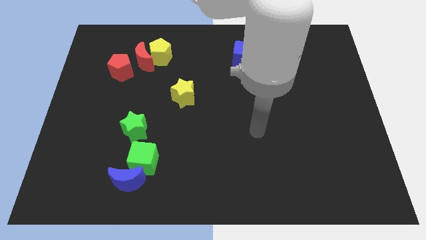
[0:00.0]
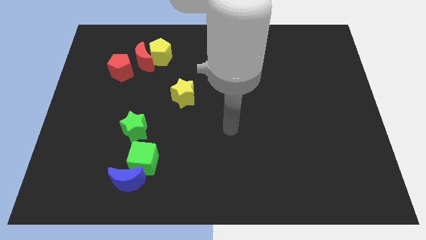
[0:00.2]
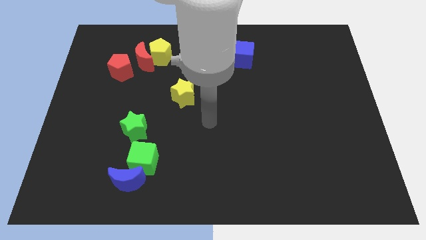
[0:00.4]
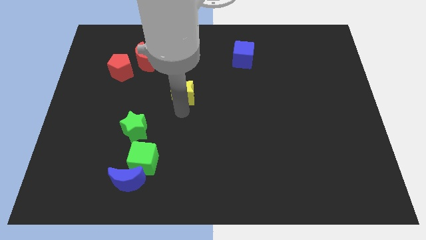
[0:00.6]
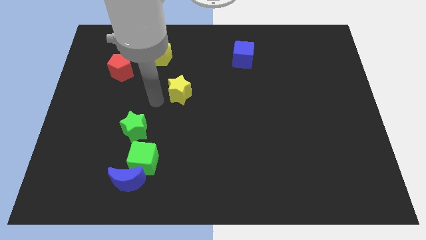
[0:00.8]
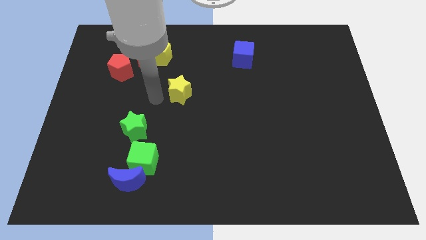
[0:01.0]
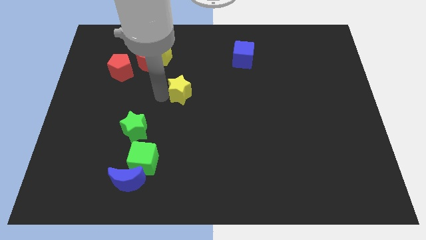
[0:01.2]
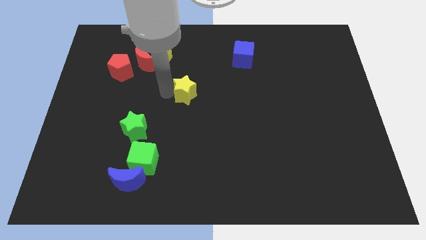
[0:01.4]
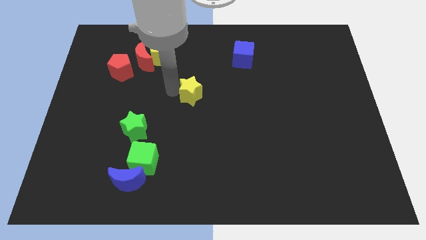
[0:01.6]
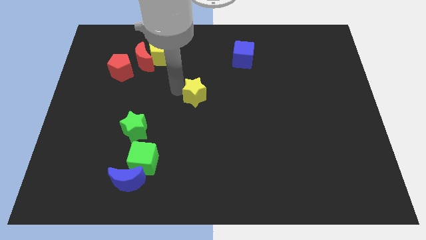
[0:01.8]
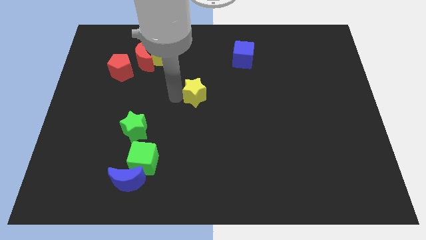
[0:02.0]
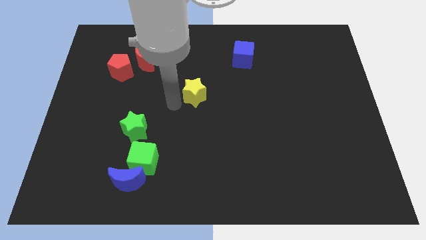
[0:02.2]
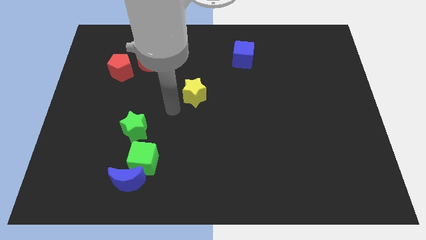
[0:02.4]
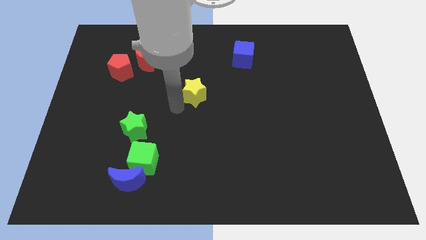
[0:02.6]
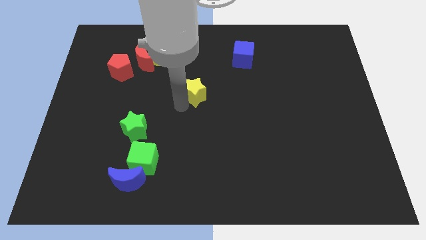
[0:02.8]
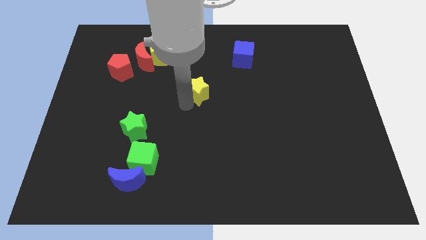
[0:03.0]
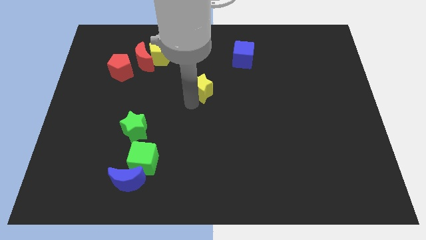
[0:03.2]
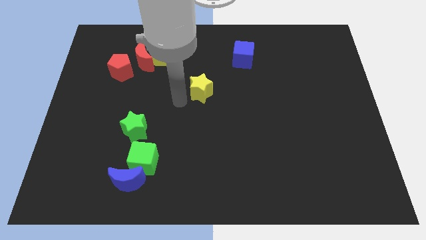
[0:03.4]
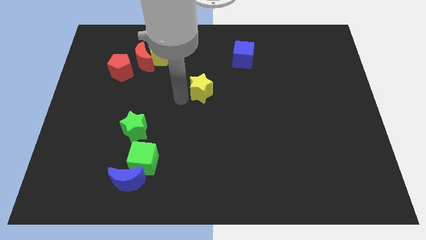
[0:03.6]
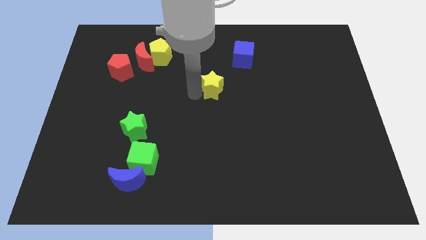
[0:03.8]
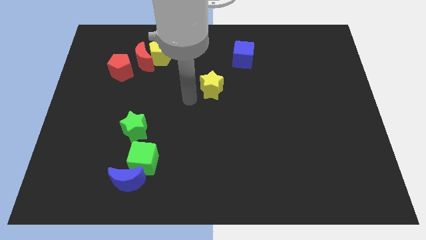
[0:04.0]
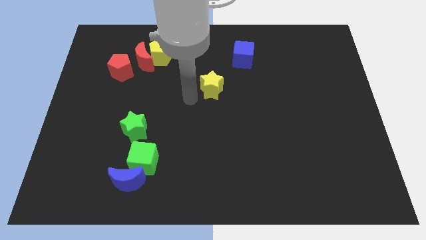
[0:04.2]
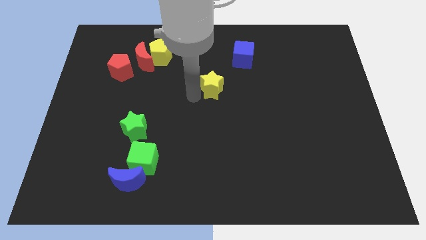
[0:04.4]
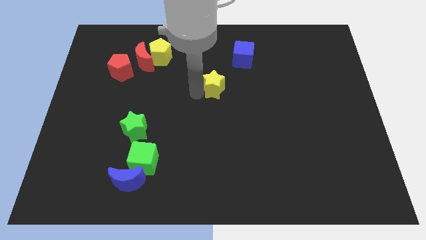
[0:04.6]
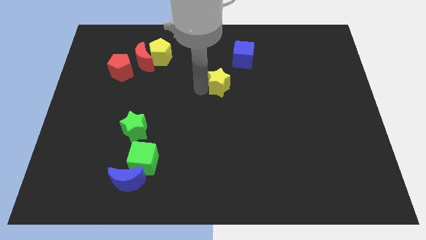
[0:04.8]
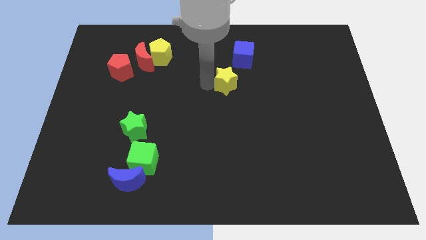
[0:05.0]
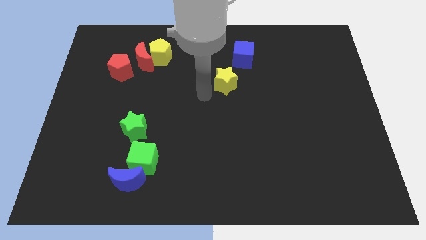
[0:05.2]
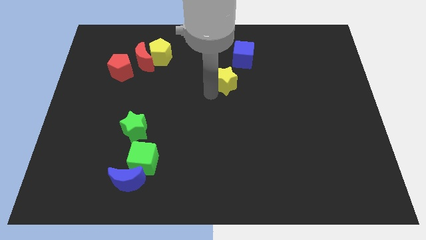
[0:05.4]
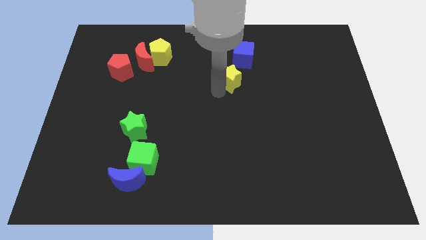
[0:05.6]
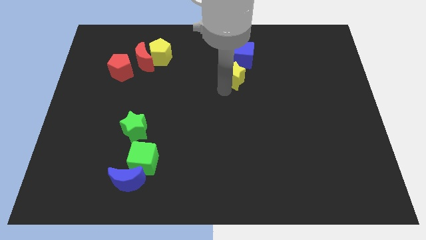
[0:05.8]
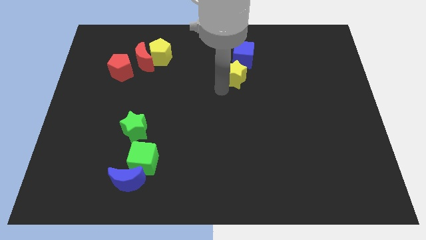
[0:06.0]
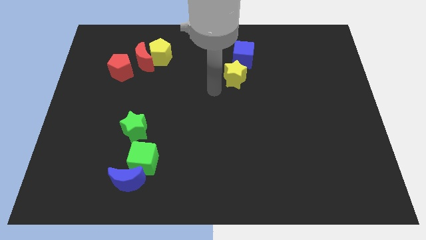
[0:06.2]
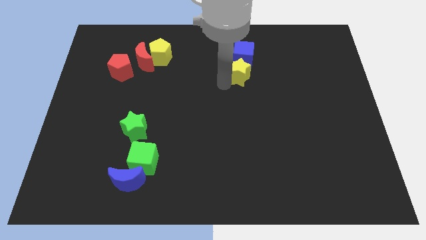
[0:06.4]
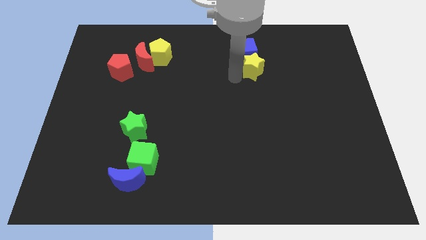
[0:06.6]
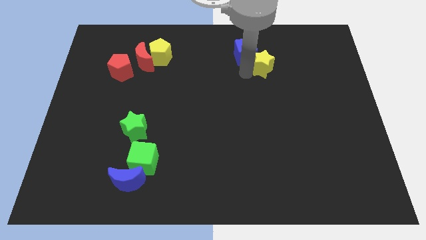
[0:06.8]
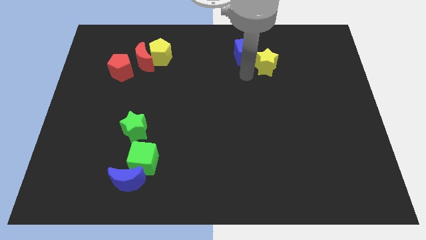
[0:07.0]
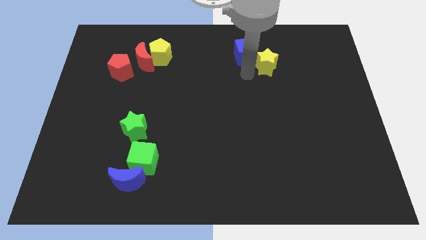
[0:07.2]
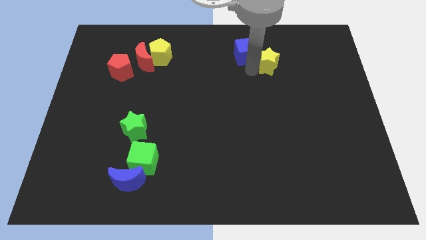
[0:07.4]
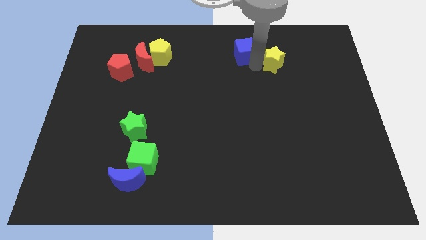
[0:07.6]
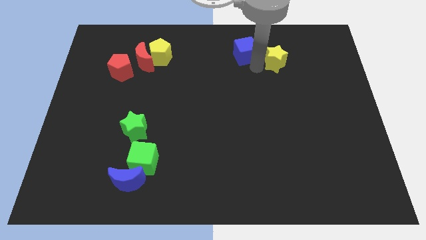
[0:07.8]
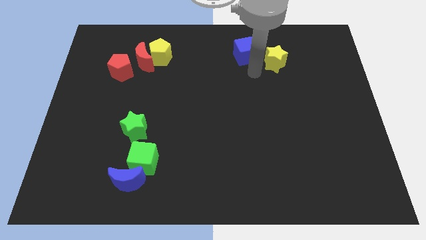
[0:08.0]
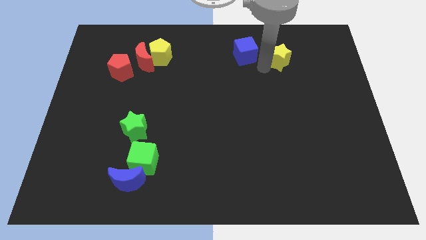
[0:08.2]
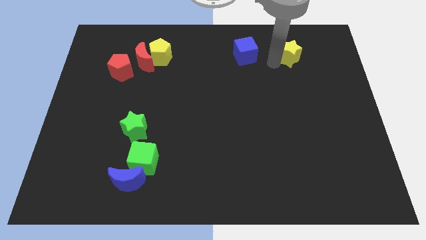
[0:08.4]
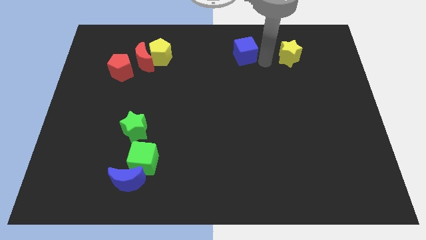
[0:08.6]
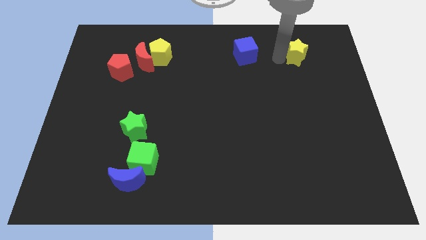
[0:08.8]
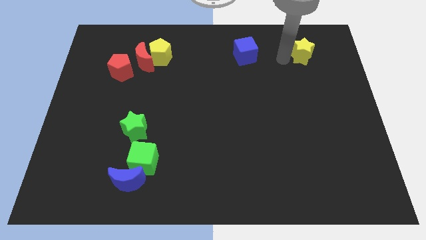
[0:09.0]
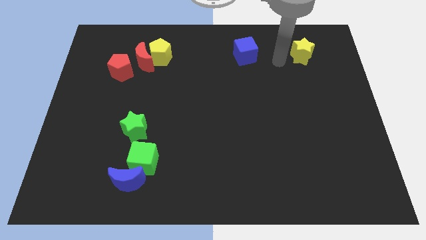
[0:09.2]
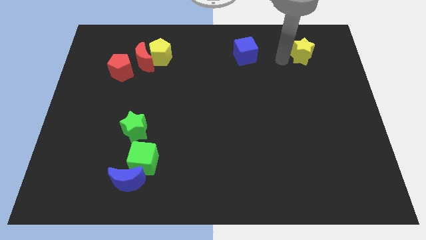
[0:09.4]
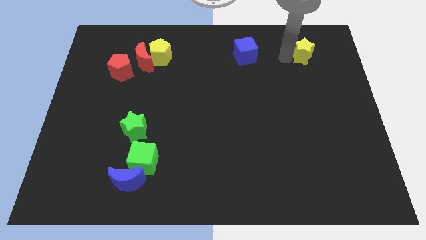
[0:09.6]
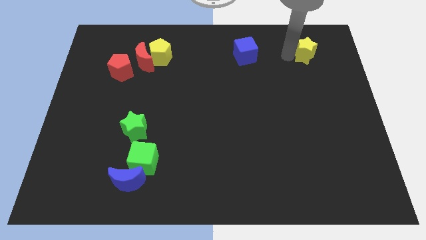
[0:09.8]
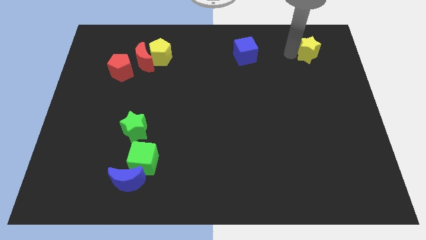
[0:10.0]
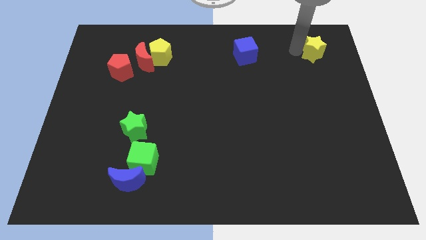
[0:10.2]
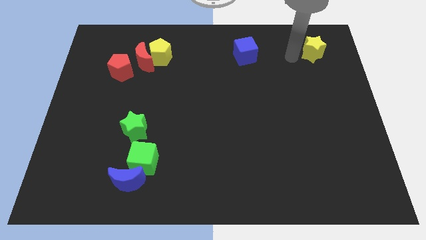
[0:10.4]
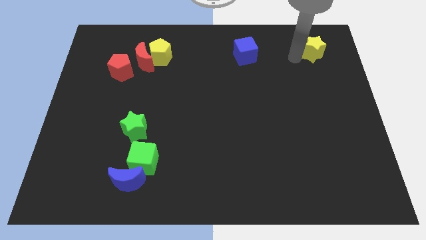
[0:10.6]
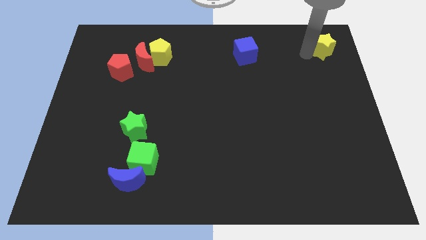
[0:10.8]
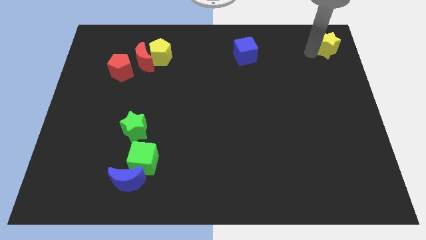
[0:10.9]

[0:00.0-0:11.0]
put the yellow star to the top right corner

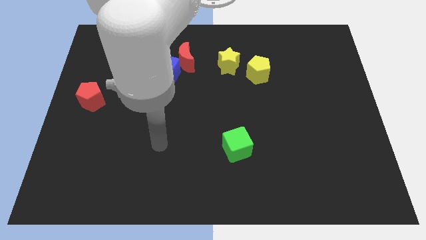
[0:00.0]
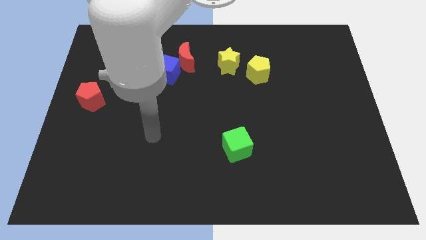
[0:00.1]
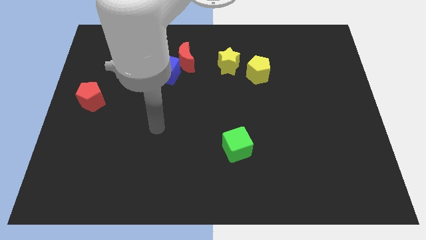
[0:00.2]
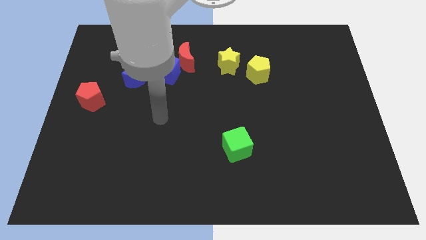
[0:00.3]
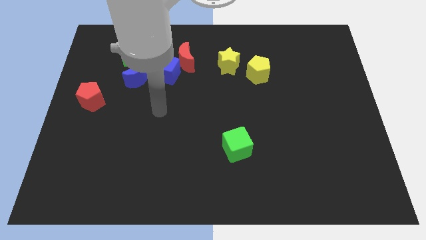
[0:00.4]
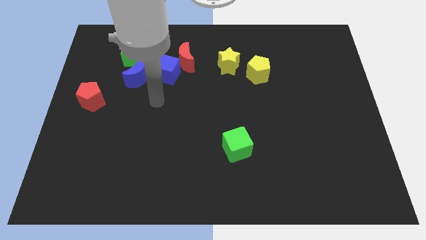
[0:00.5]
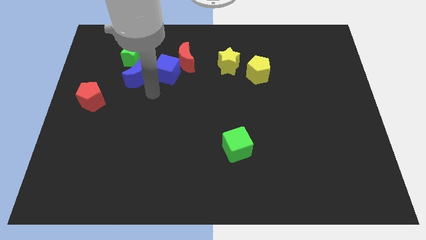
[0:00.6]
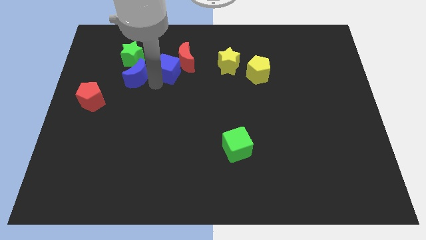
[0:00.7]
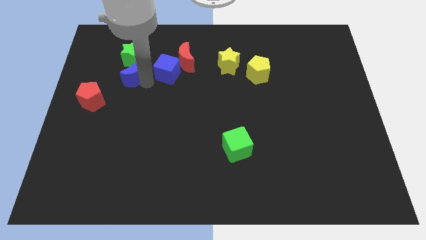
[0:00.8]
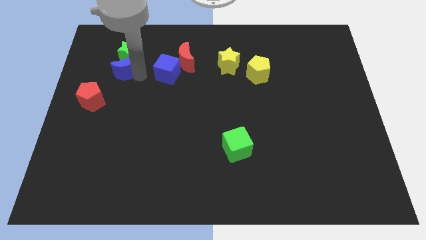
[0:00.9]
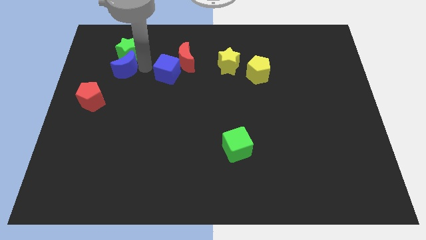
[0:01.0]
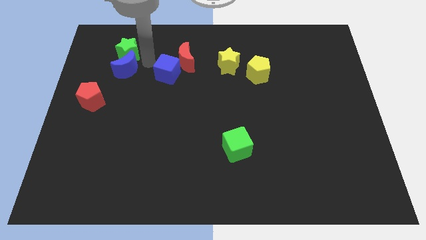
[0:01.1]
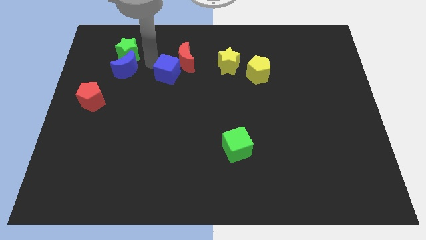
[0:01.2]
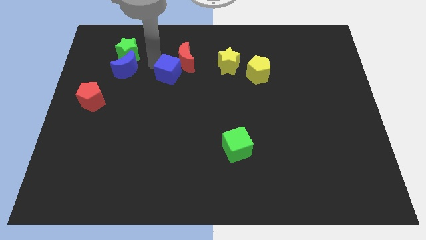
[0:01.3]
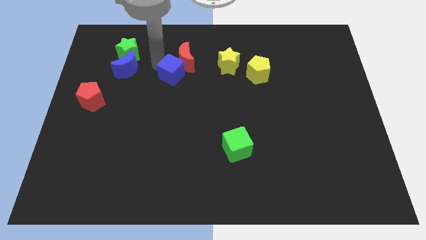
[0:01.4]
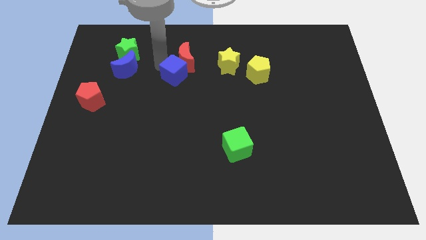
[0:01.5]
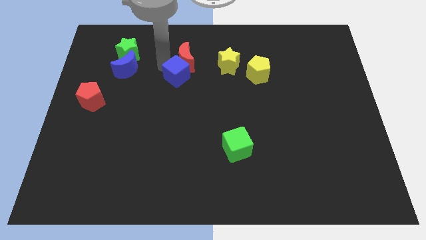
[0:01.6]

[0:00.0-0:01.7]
slide the blue cube to the middle
